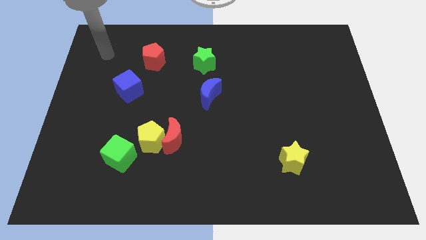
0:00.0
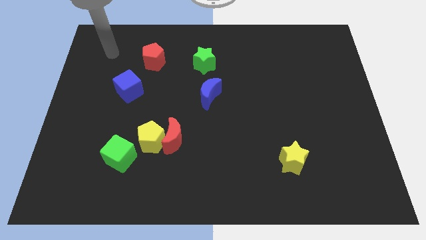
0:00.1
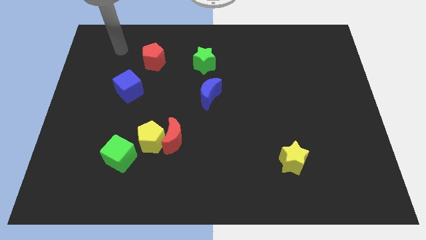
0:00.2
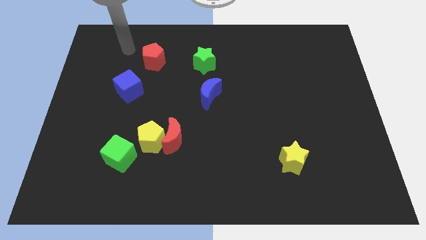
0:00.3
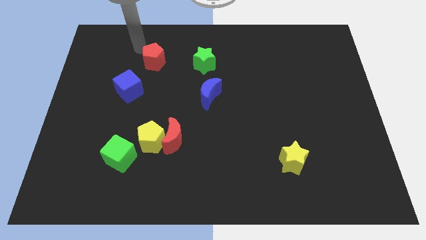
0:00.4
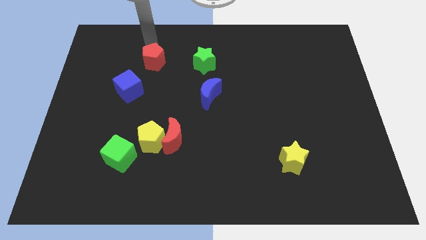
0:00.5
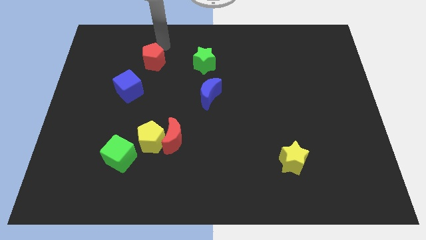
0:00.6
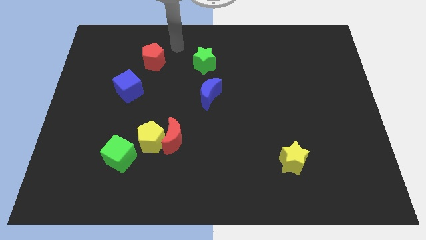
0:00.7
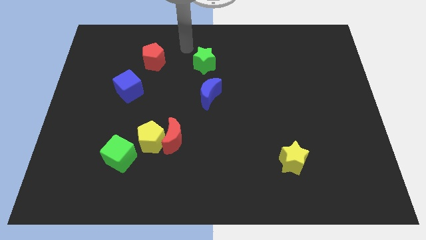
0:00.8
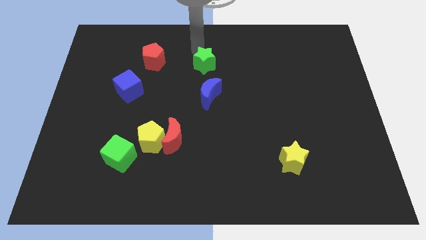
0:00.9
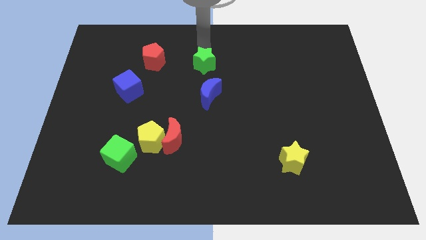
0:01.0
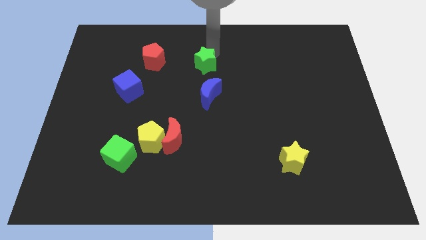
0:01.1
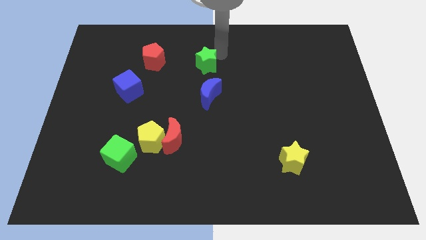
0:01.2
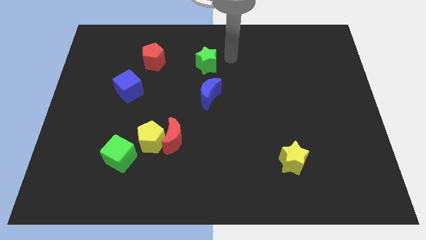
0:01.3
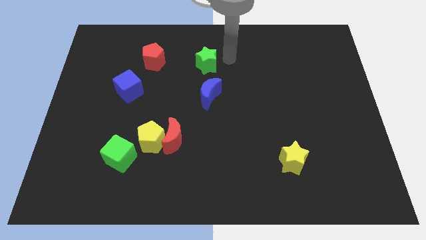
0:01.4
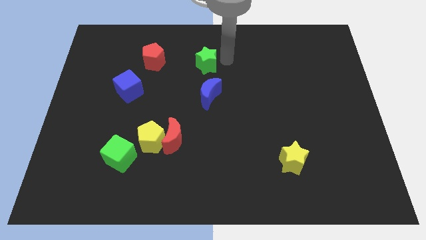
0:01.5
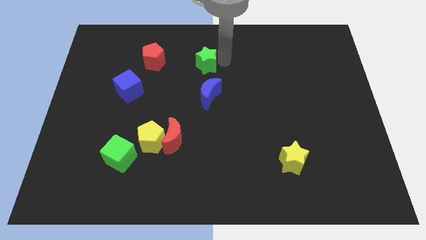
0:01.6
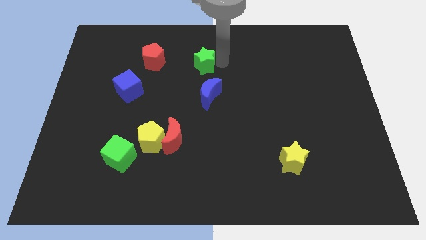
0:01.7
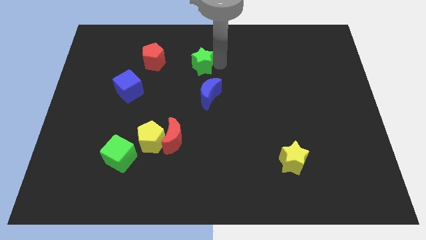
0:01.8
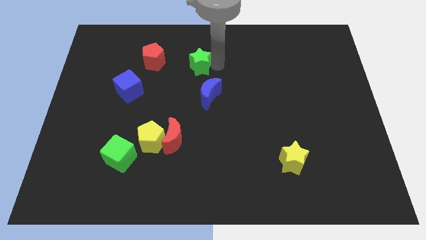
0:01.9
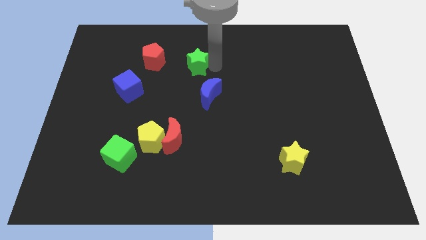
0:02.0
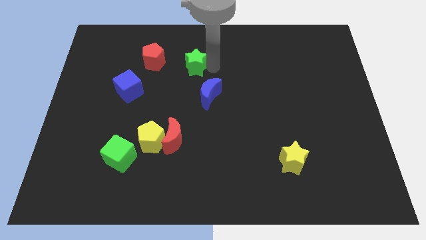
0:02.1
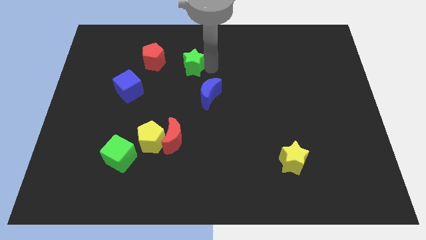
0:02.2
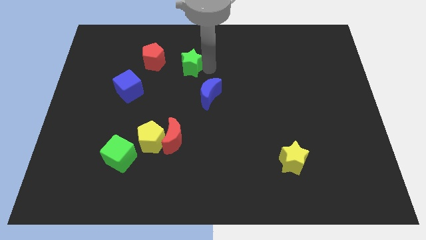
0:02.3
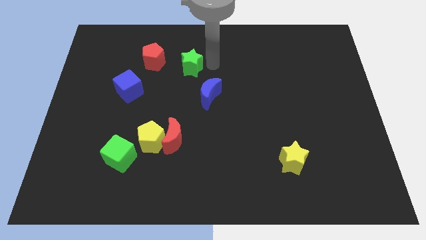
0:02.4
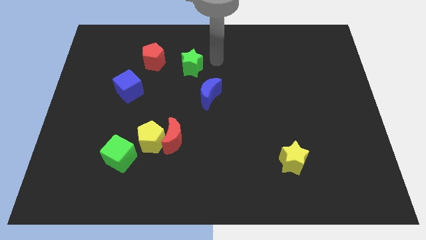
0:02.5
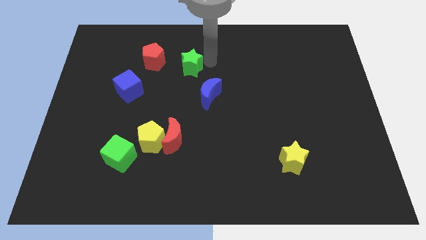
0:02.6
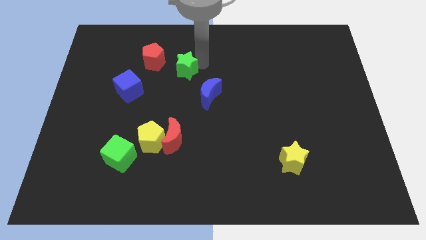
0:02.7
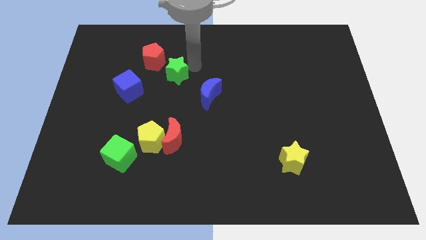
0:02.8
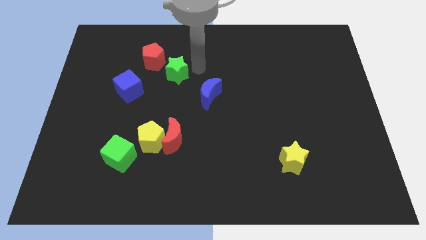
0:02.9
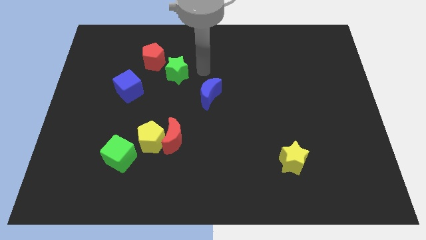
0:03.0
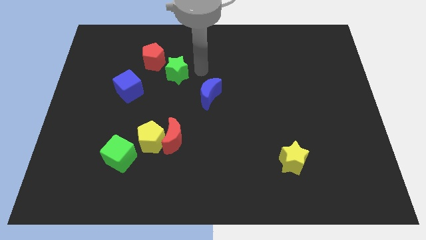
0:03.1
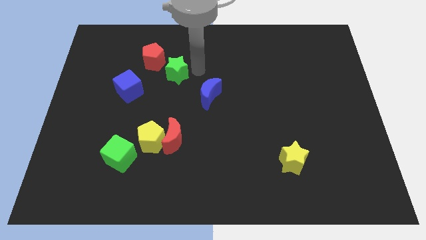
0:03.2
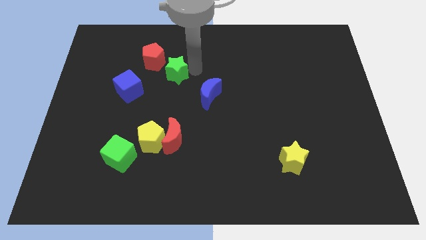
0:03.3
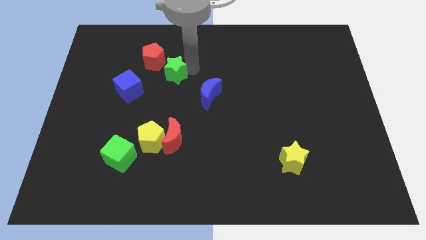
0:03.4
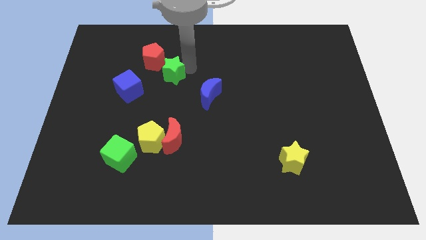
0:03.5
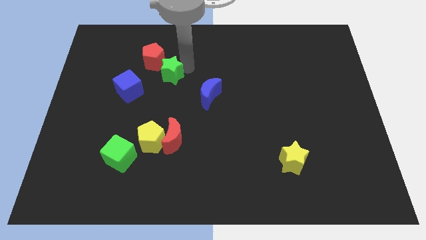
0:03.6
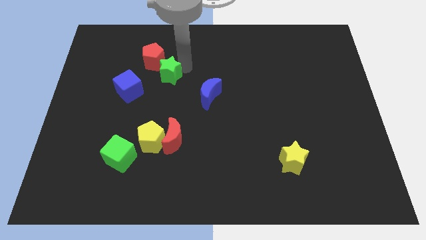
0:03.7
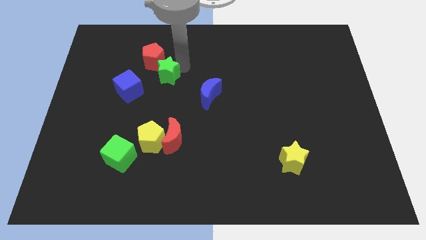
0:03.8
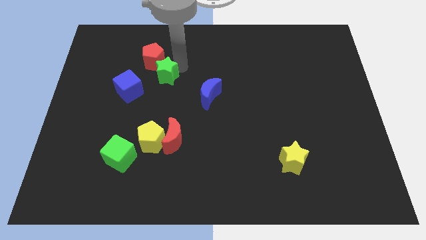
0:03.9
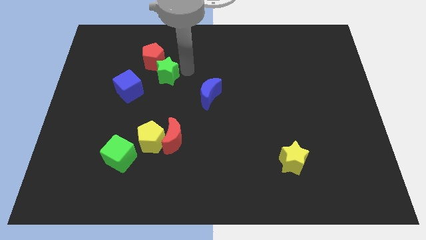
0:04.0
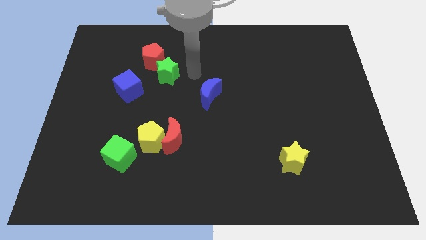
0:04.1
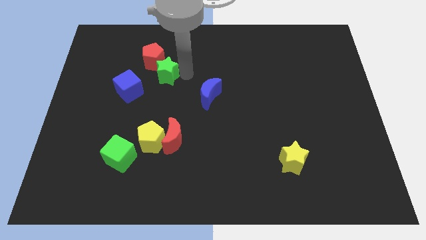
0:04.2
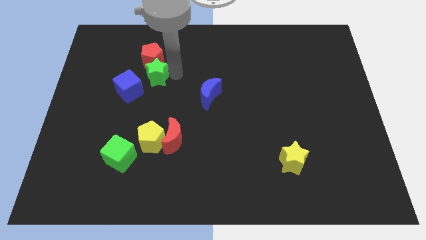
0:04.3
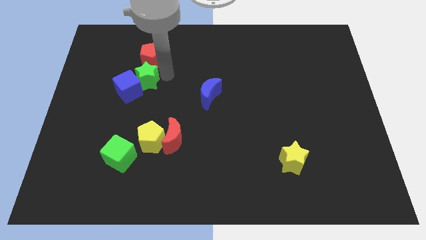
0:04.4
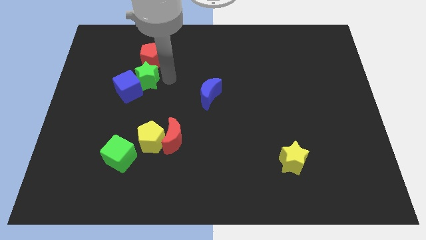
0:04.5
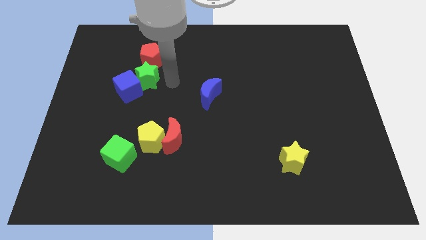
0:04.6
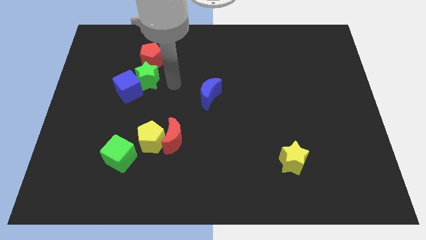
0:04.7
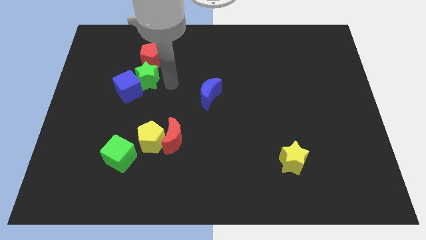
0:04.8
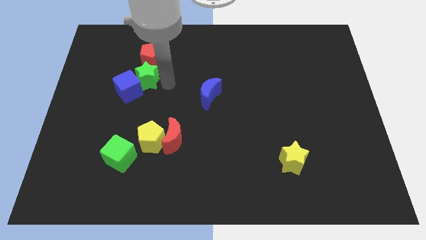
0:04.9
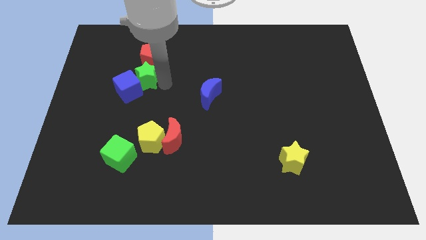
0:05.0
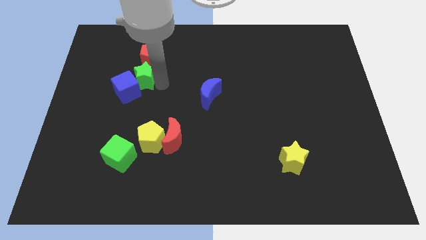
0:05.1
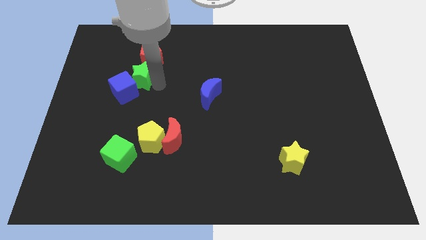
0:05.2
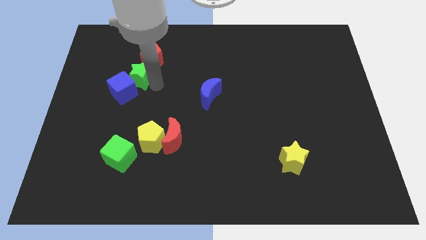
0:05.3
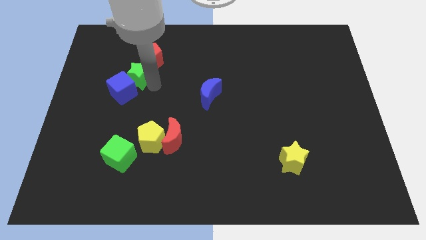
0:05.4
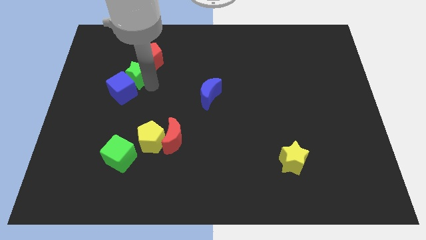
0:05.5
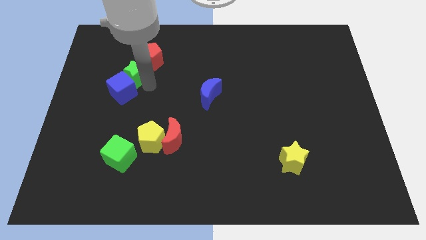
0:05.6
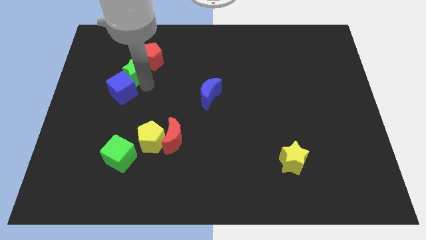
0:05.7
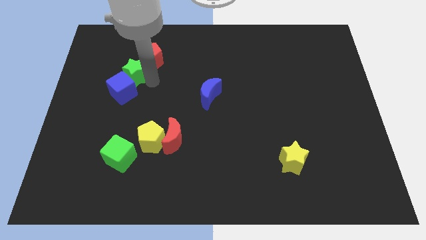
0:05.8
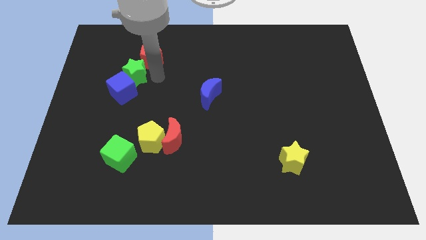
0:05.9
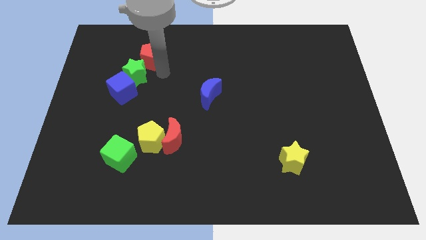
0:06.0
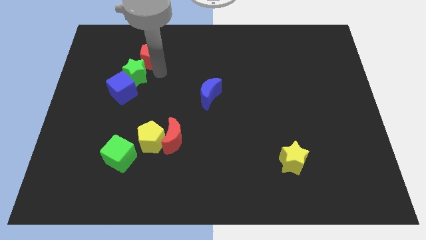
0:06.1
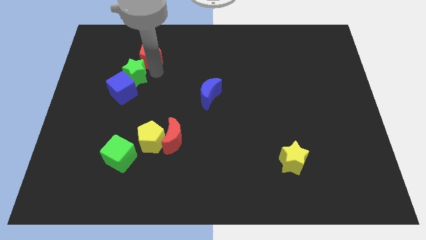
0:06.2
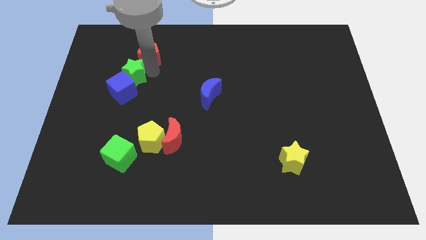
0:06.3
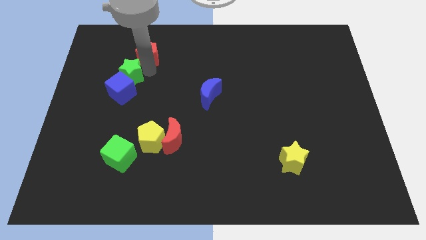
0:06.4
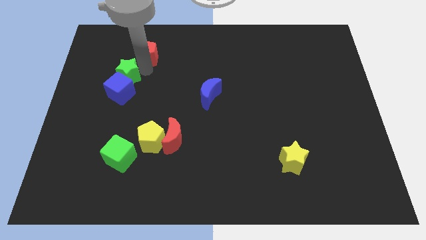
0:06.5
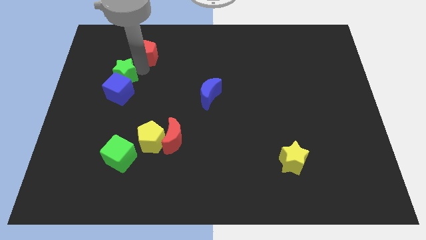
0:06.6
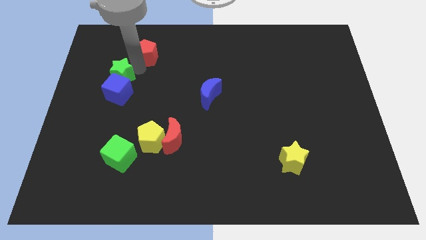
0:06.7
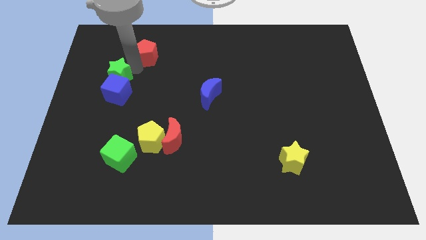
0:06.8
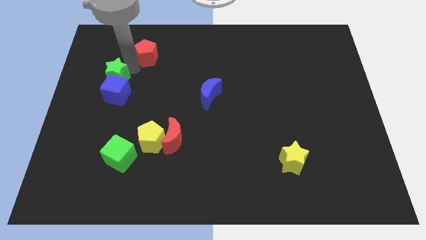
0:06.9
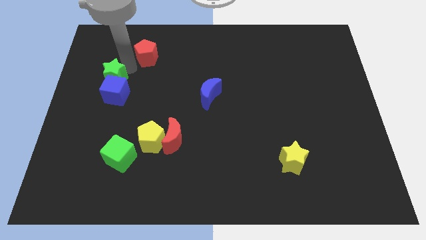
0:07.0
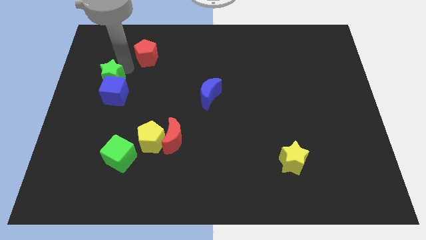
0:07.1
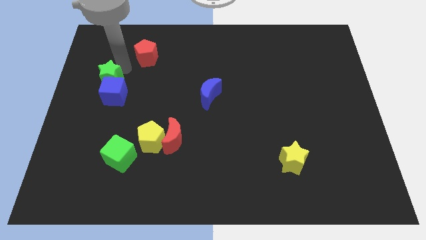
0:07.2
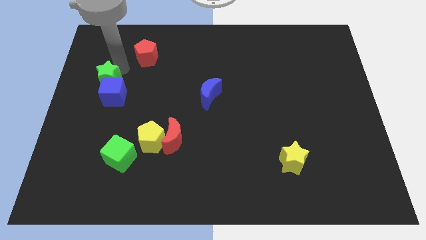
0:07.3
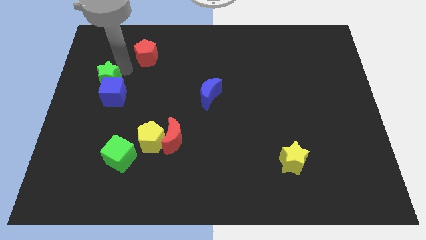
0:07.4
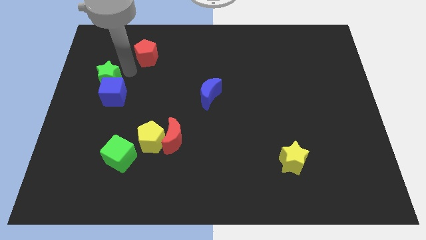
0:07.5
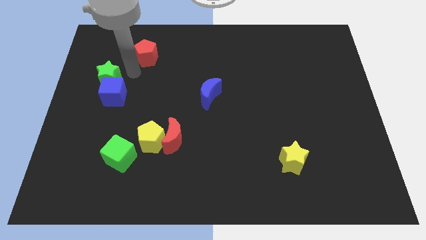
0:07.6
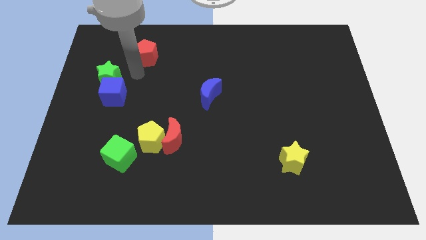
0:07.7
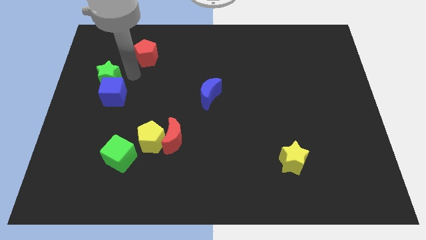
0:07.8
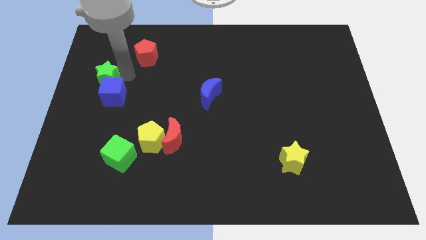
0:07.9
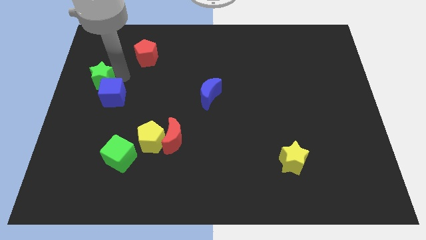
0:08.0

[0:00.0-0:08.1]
push the green star to the left side
